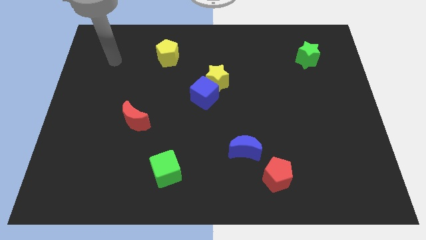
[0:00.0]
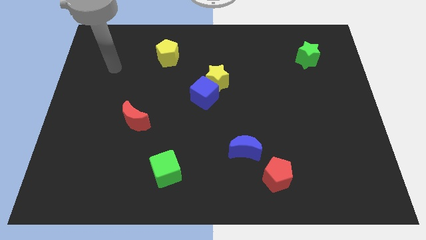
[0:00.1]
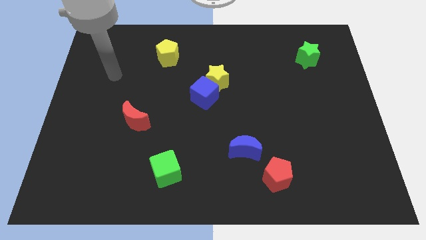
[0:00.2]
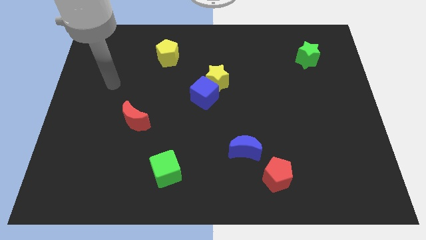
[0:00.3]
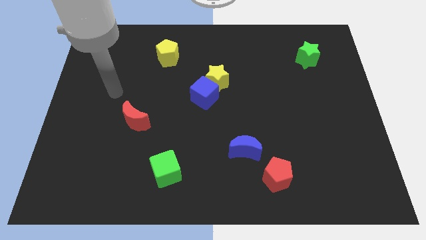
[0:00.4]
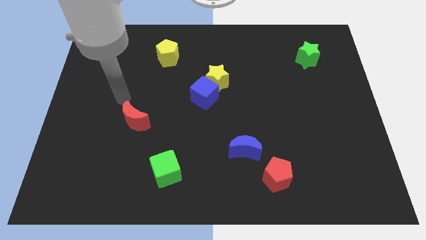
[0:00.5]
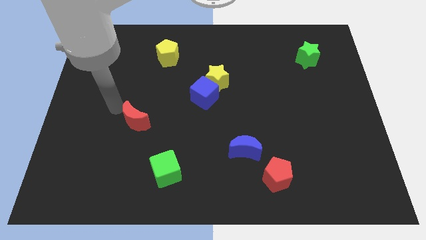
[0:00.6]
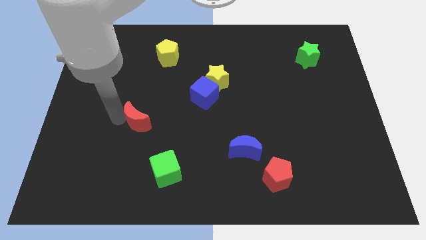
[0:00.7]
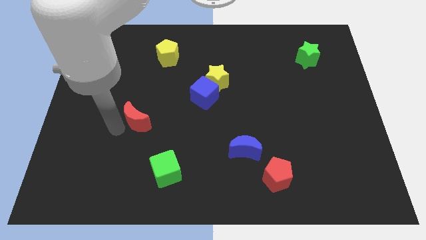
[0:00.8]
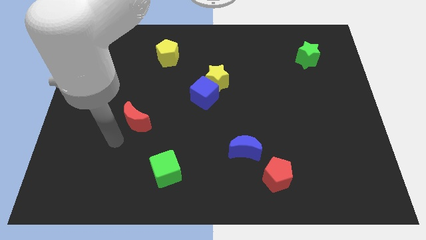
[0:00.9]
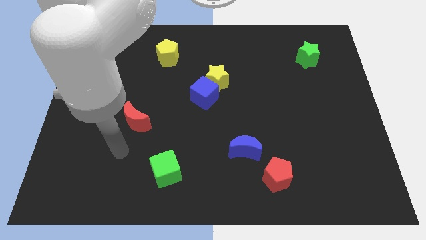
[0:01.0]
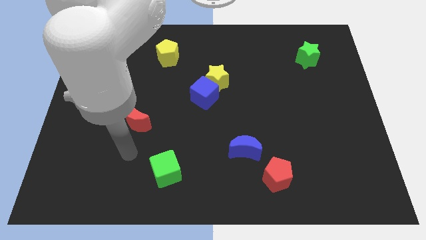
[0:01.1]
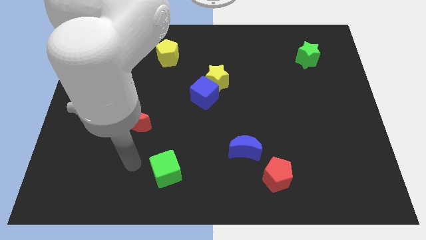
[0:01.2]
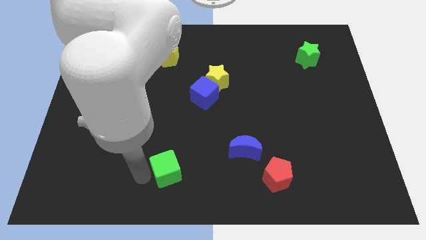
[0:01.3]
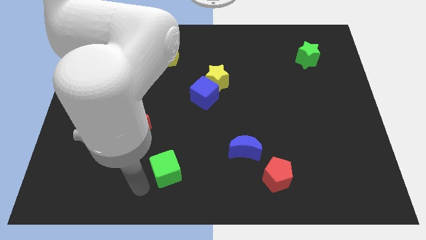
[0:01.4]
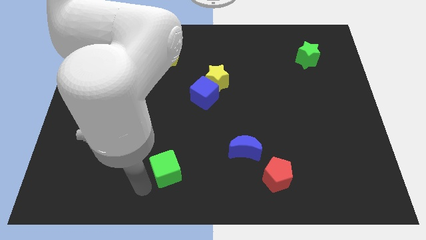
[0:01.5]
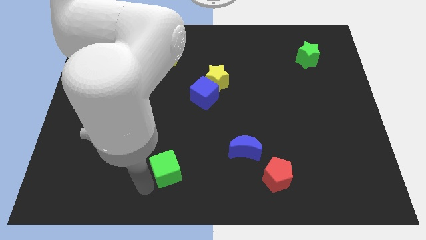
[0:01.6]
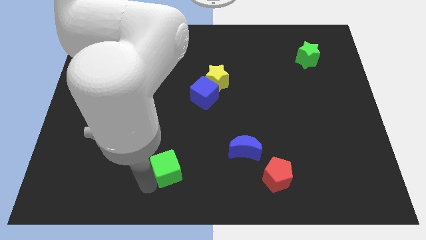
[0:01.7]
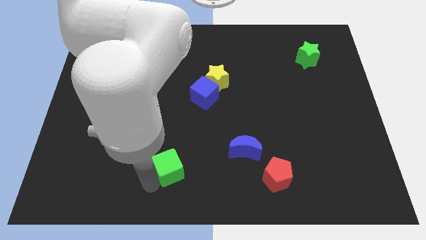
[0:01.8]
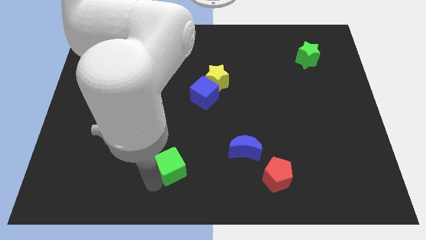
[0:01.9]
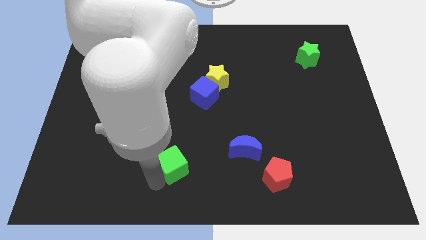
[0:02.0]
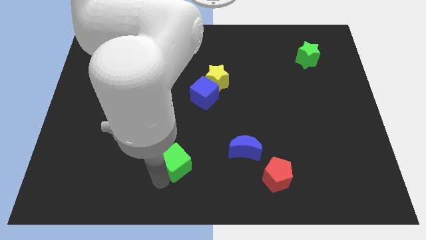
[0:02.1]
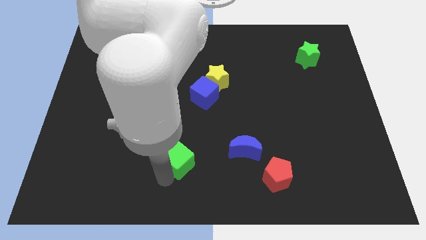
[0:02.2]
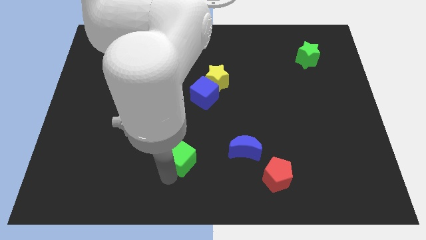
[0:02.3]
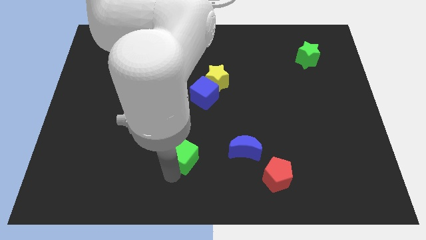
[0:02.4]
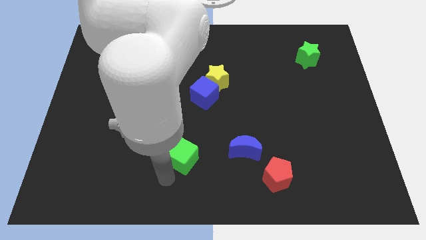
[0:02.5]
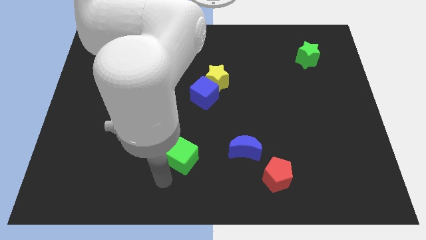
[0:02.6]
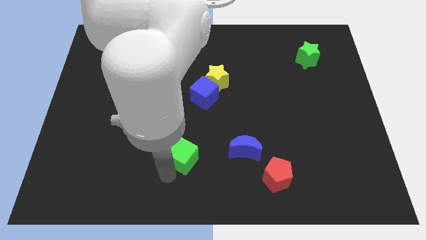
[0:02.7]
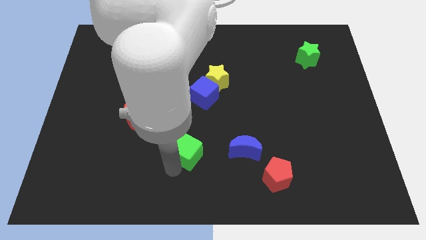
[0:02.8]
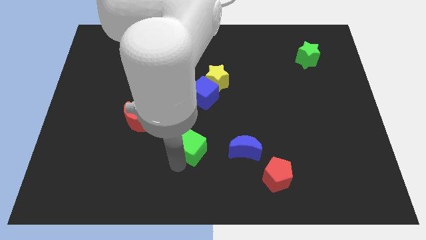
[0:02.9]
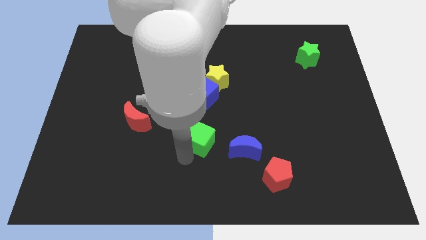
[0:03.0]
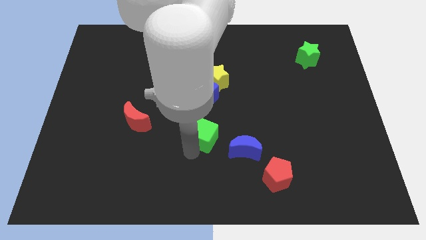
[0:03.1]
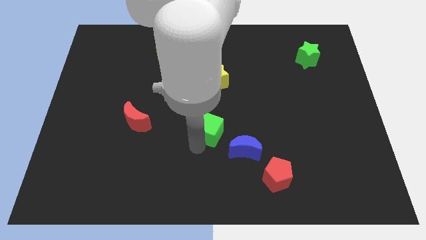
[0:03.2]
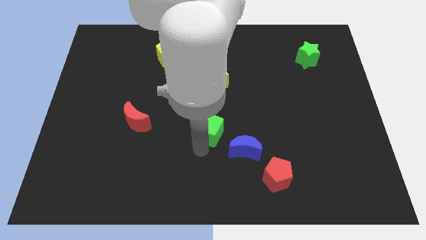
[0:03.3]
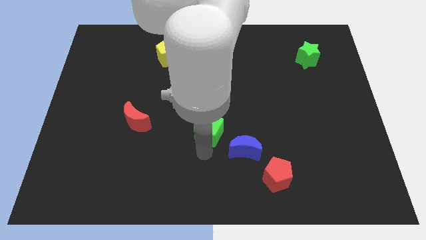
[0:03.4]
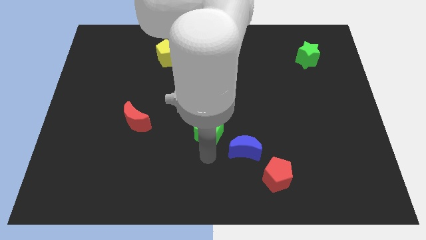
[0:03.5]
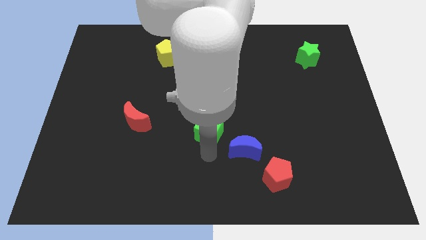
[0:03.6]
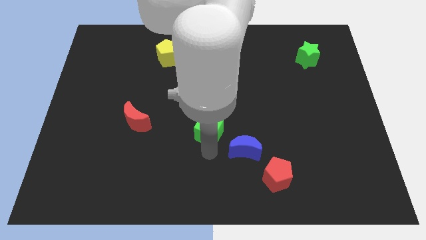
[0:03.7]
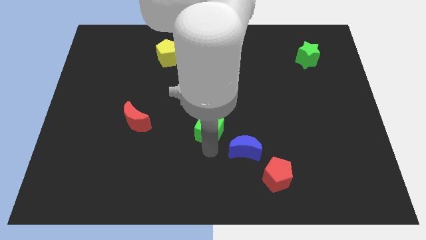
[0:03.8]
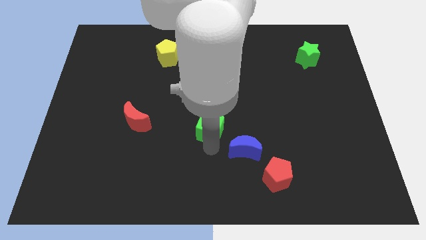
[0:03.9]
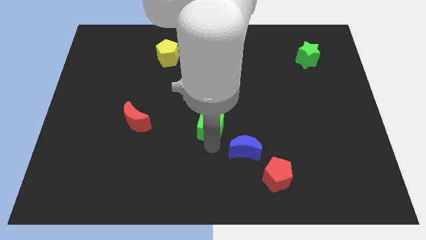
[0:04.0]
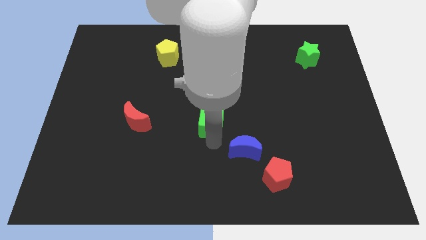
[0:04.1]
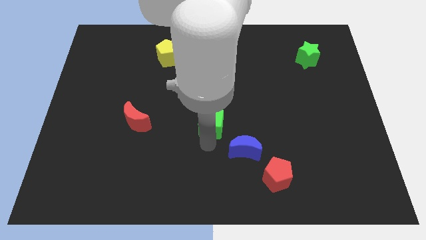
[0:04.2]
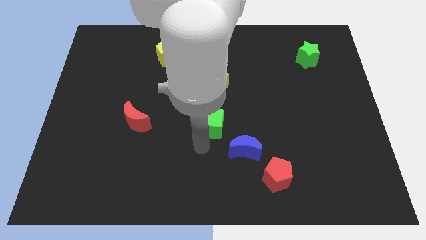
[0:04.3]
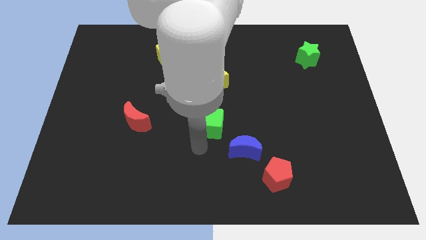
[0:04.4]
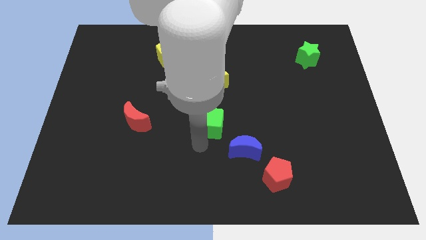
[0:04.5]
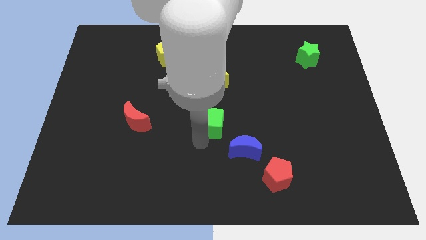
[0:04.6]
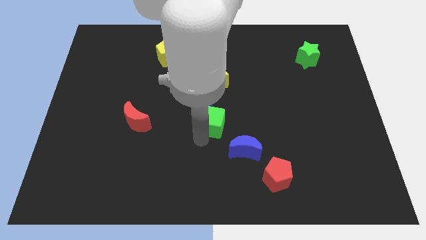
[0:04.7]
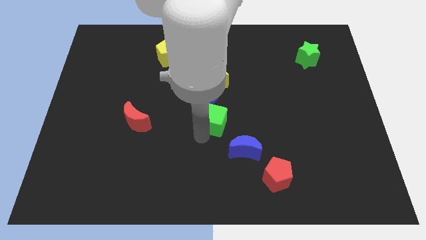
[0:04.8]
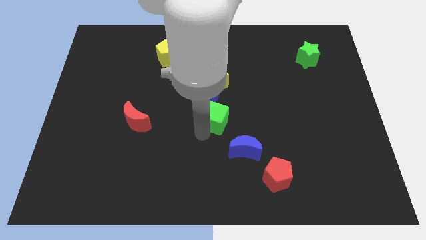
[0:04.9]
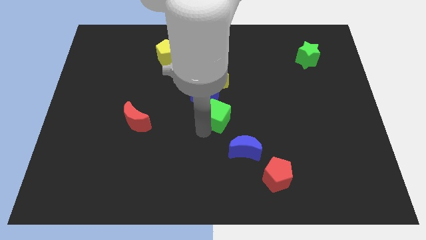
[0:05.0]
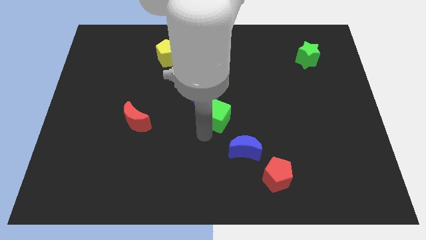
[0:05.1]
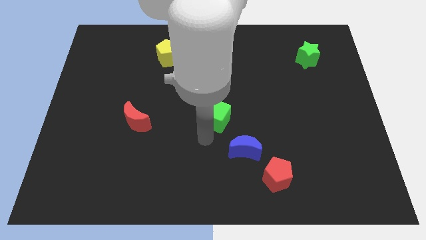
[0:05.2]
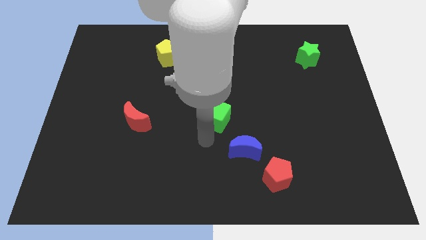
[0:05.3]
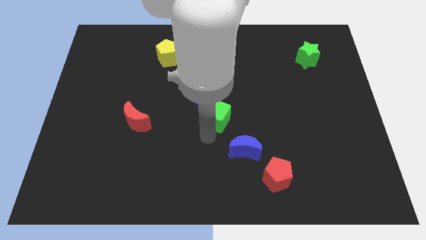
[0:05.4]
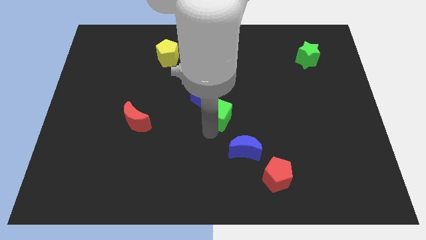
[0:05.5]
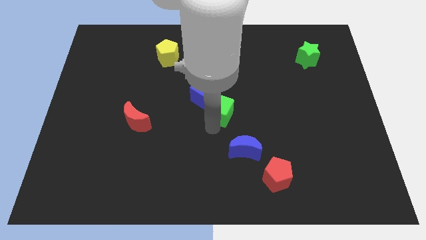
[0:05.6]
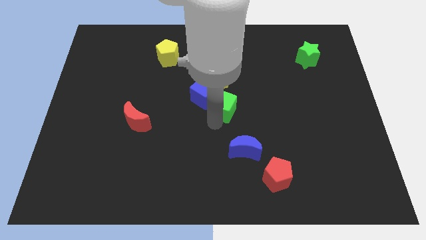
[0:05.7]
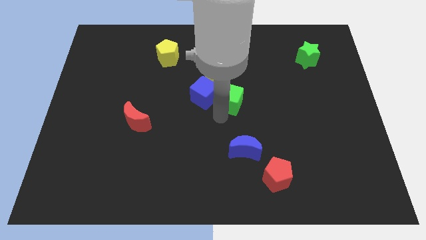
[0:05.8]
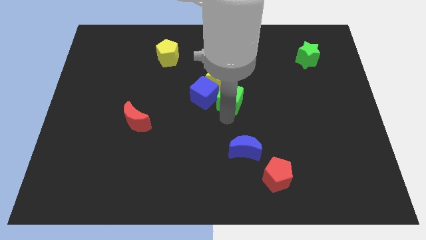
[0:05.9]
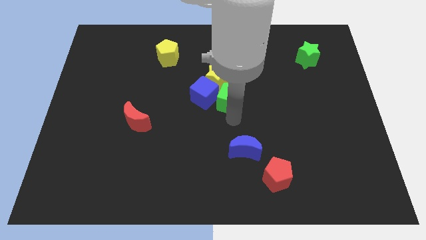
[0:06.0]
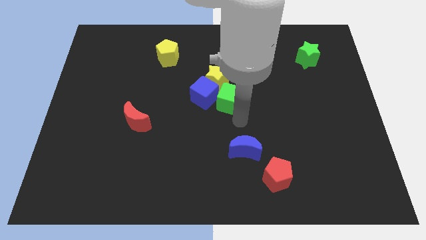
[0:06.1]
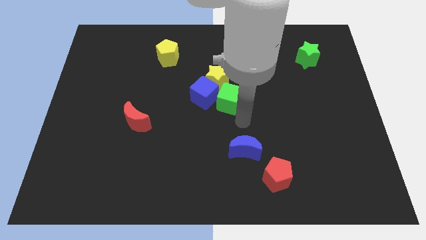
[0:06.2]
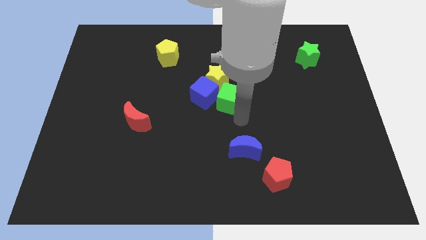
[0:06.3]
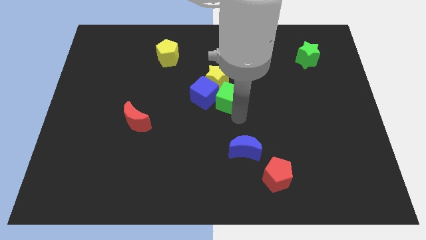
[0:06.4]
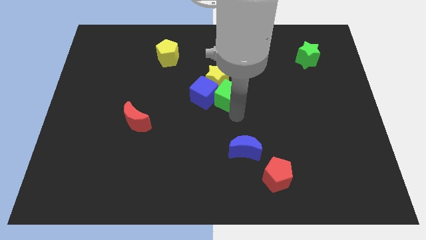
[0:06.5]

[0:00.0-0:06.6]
push the green cube towards the yellow star

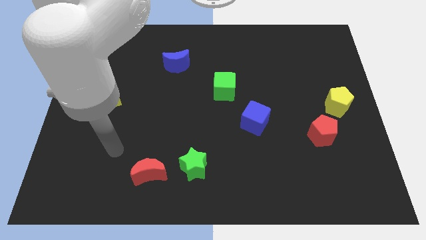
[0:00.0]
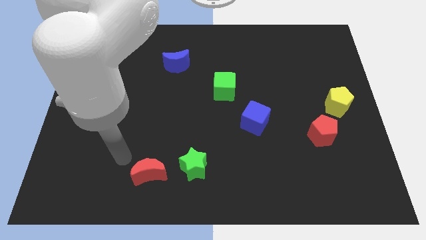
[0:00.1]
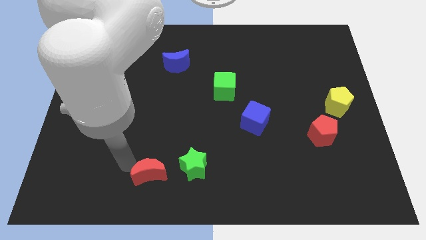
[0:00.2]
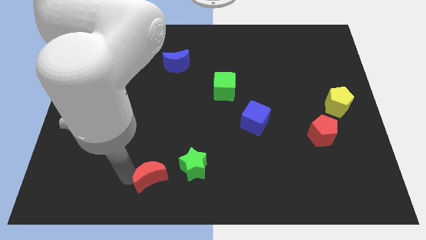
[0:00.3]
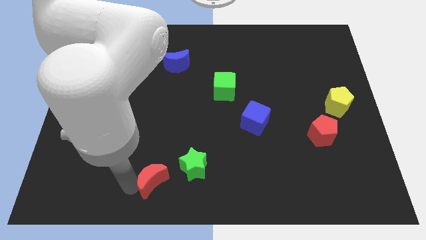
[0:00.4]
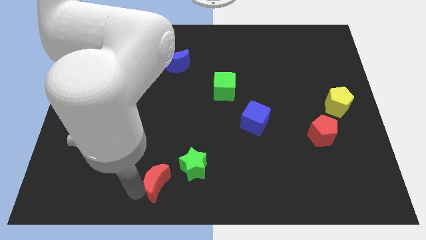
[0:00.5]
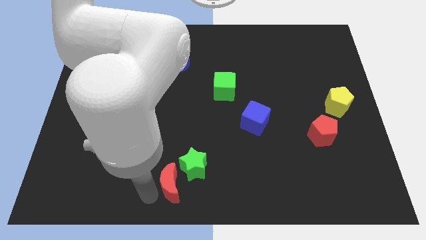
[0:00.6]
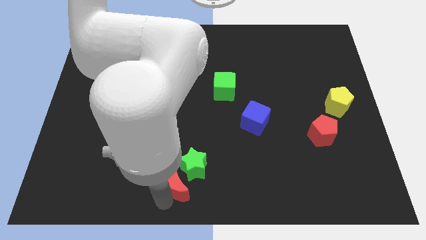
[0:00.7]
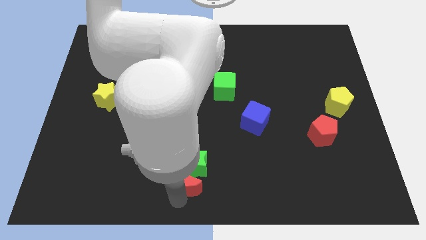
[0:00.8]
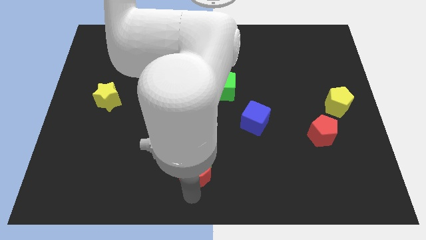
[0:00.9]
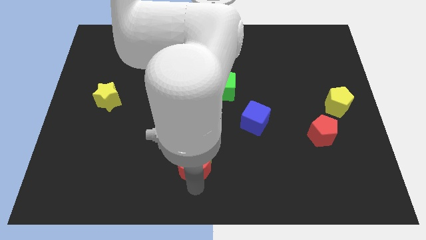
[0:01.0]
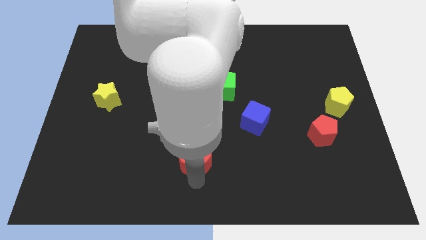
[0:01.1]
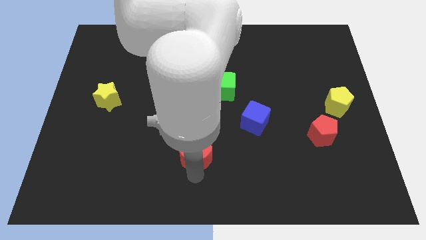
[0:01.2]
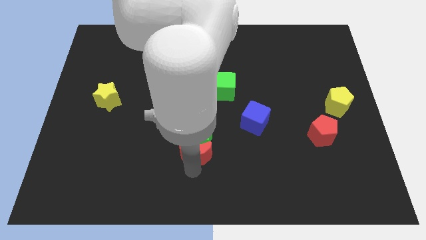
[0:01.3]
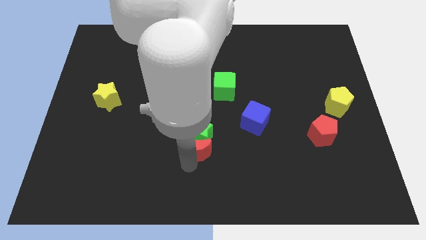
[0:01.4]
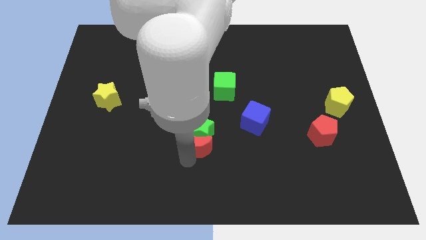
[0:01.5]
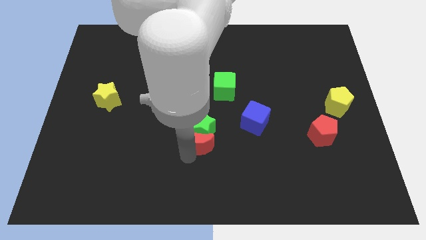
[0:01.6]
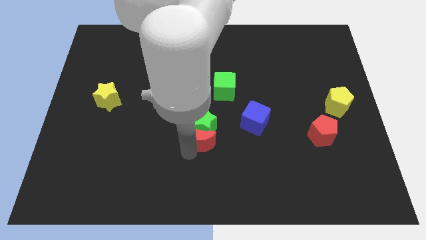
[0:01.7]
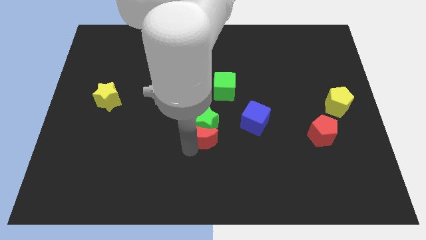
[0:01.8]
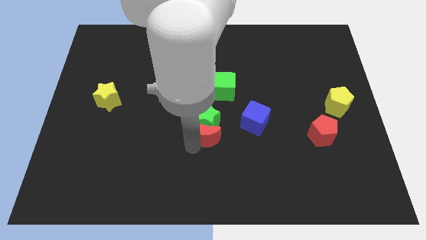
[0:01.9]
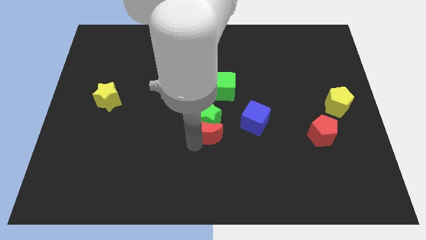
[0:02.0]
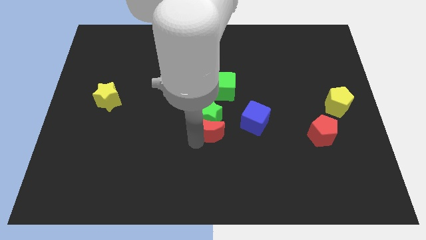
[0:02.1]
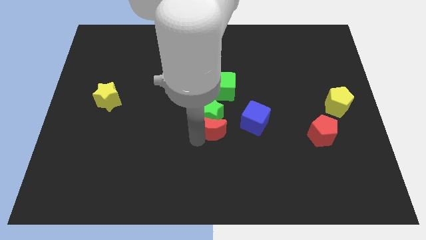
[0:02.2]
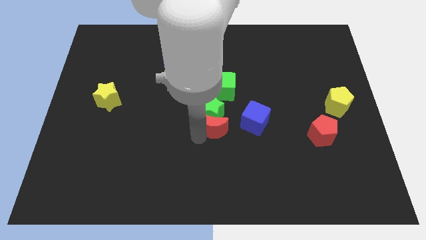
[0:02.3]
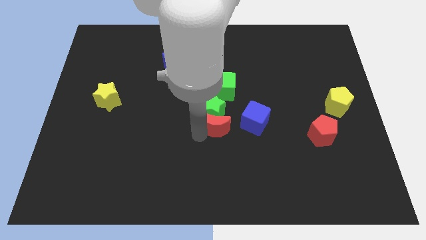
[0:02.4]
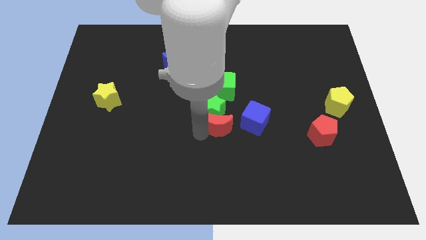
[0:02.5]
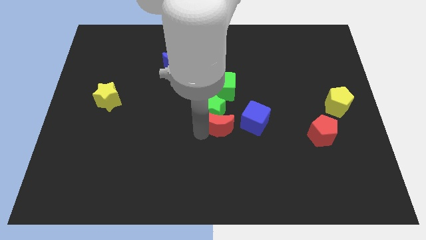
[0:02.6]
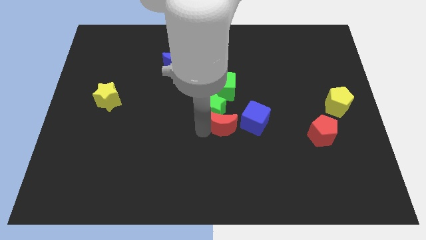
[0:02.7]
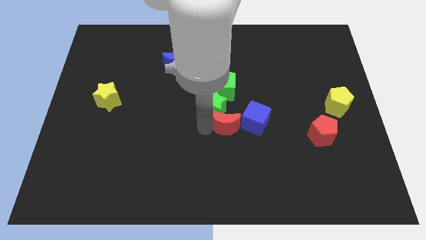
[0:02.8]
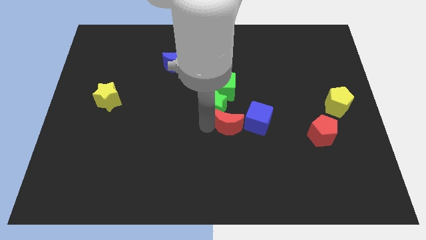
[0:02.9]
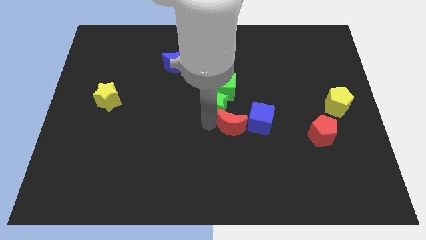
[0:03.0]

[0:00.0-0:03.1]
slide the green star close to the green cube
